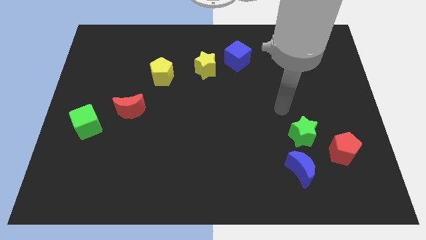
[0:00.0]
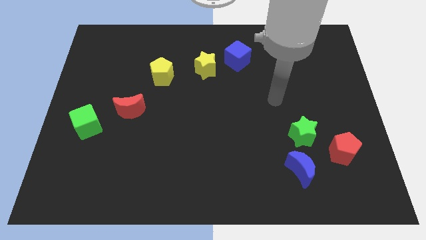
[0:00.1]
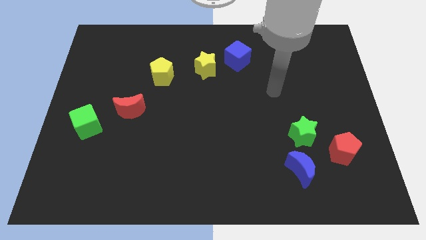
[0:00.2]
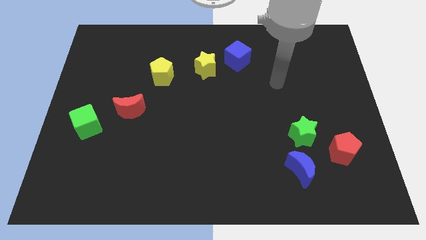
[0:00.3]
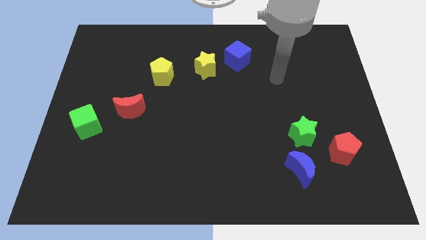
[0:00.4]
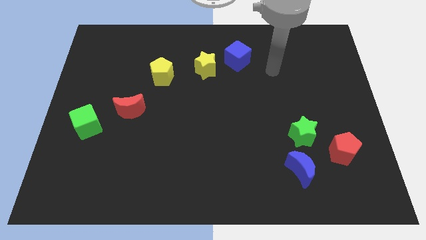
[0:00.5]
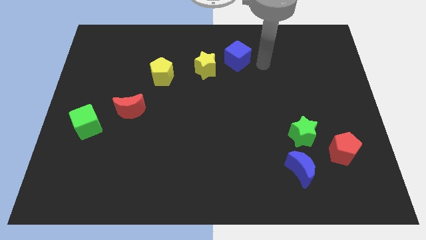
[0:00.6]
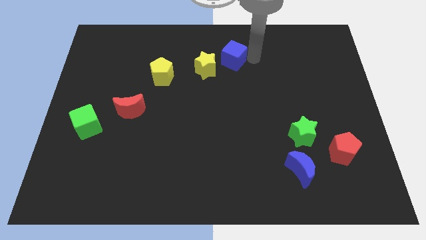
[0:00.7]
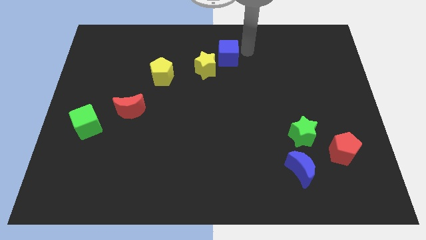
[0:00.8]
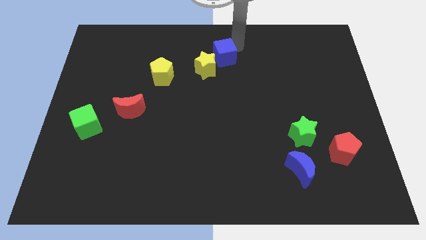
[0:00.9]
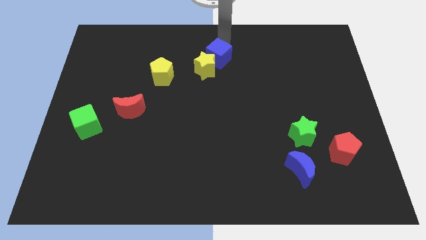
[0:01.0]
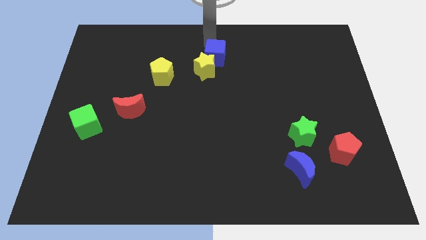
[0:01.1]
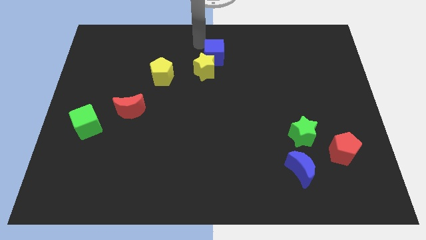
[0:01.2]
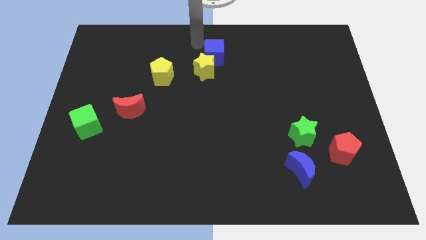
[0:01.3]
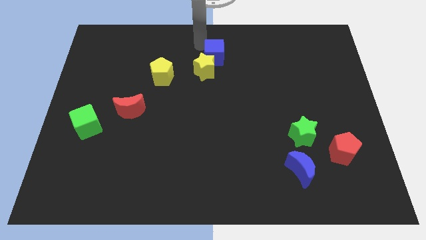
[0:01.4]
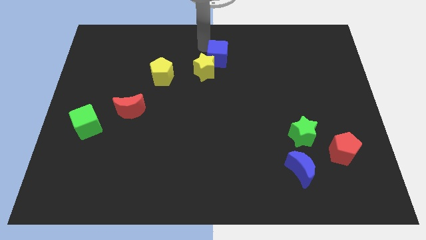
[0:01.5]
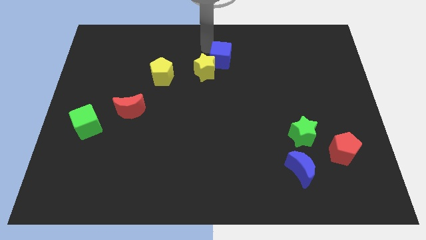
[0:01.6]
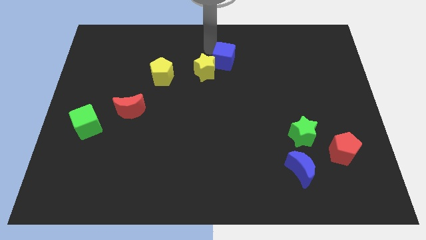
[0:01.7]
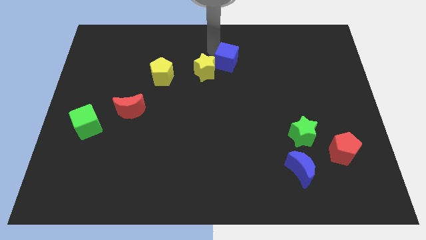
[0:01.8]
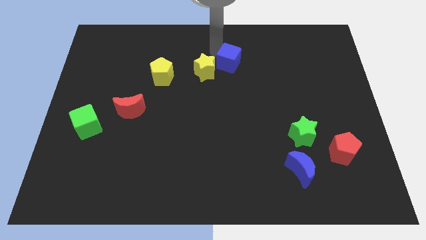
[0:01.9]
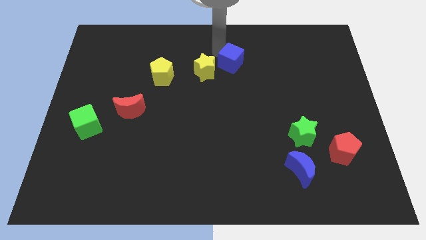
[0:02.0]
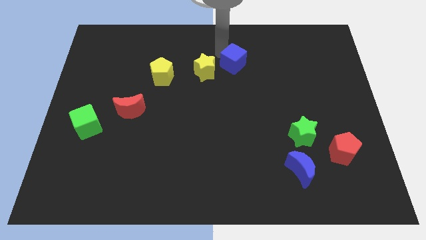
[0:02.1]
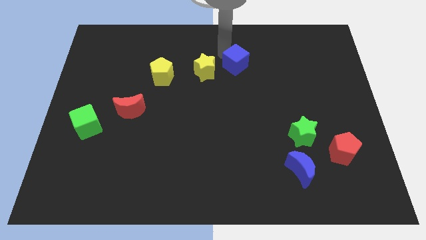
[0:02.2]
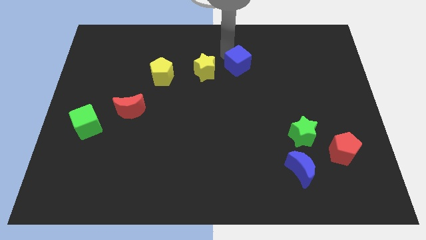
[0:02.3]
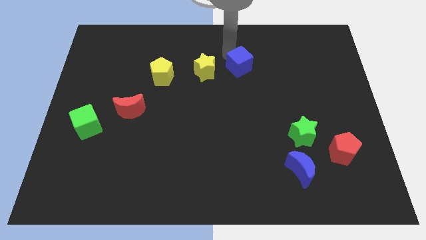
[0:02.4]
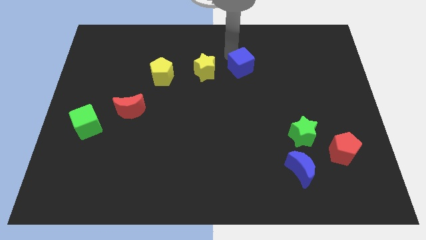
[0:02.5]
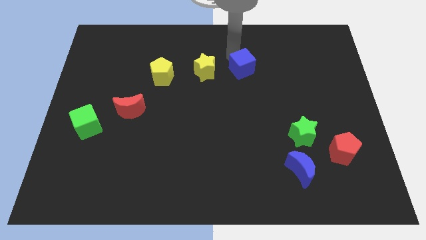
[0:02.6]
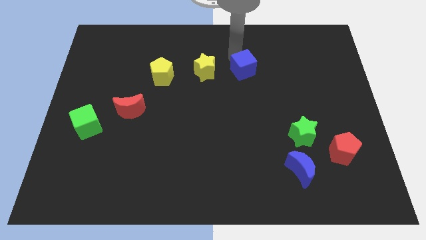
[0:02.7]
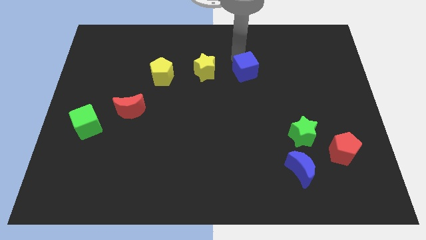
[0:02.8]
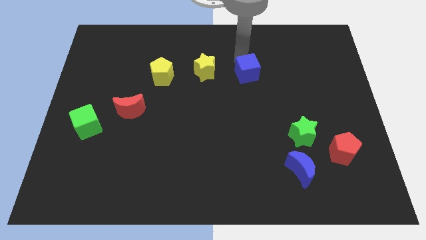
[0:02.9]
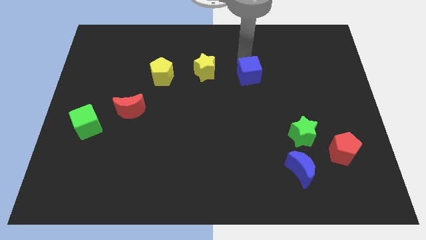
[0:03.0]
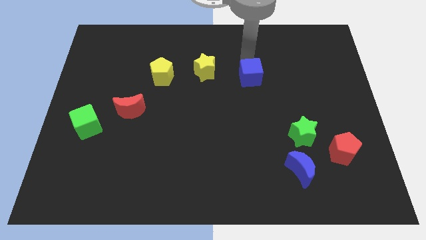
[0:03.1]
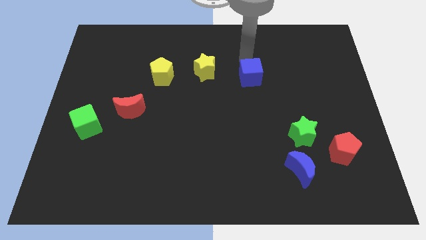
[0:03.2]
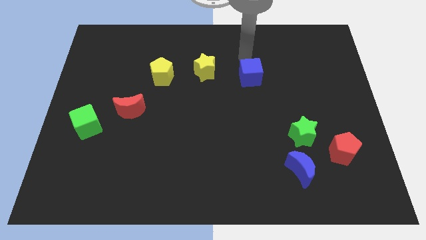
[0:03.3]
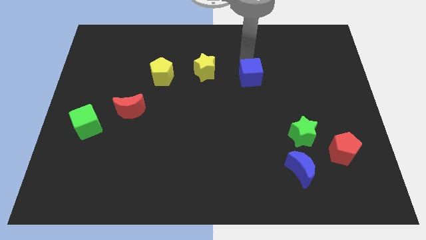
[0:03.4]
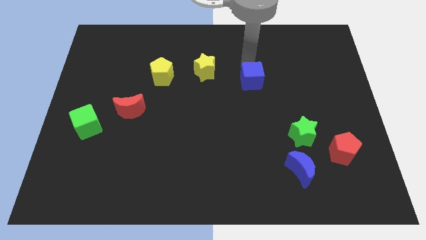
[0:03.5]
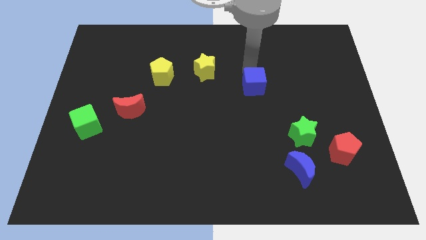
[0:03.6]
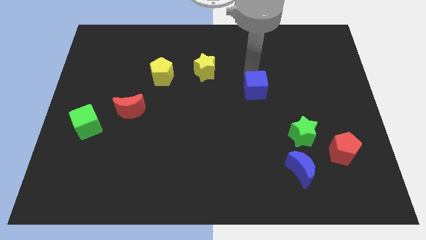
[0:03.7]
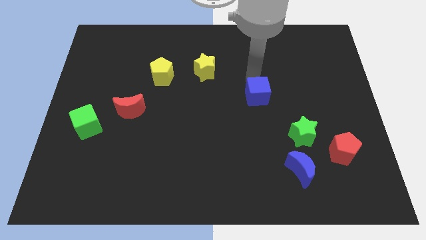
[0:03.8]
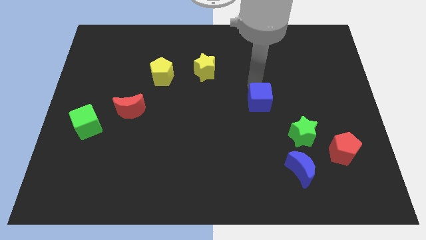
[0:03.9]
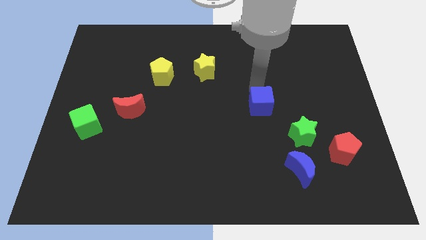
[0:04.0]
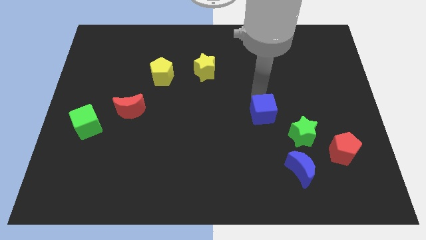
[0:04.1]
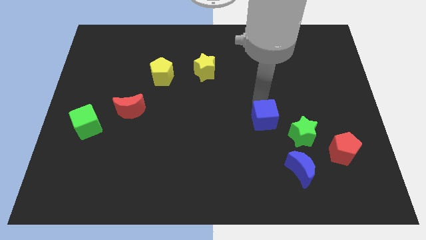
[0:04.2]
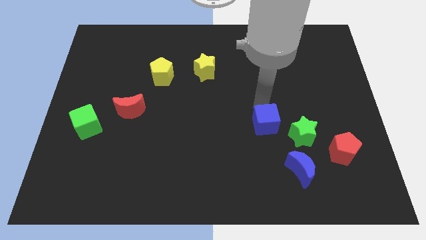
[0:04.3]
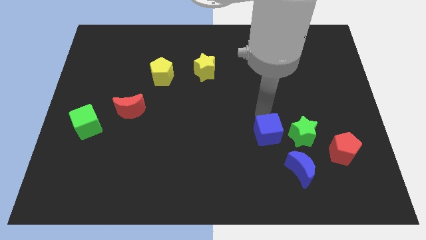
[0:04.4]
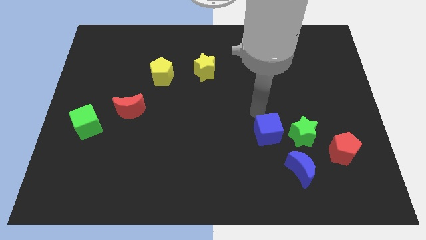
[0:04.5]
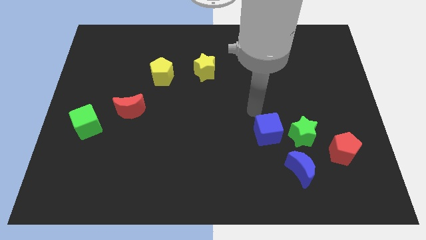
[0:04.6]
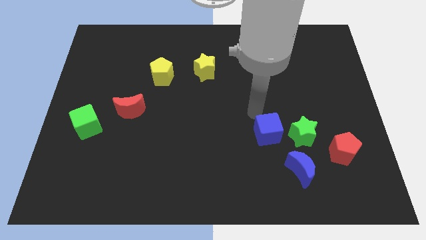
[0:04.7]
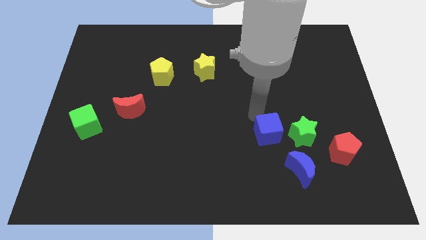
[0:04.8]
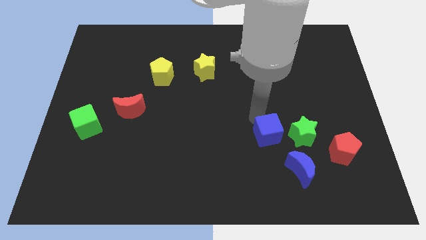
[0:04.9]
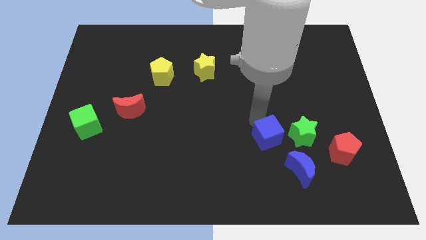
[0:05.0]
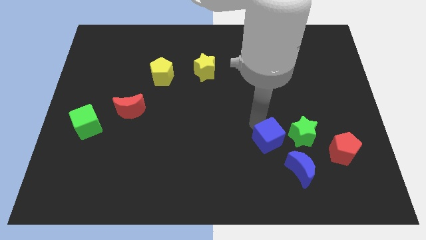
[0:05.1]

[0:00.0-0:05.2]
move the blue cube to the bottom left of the green star

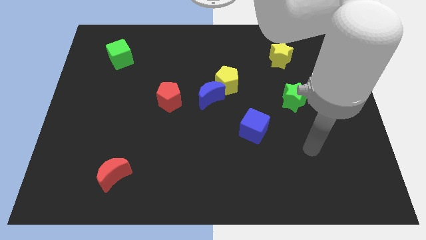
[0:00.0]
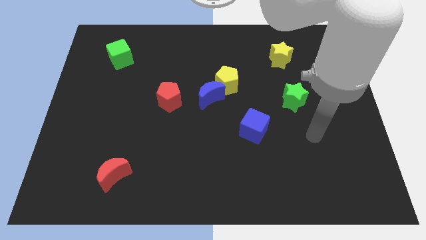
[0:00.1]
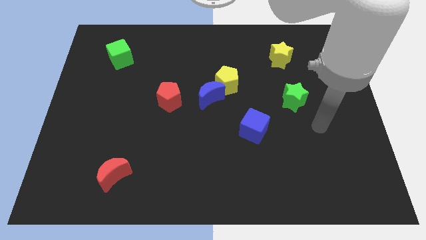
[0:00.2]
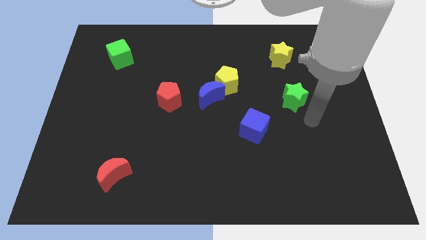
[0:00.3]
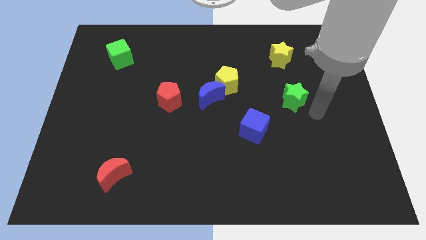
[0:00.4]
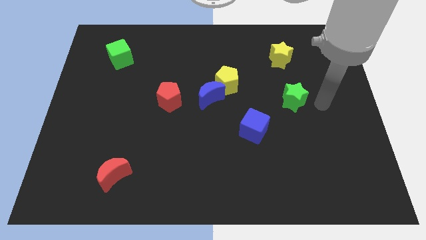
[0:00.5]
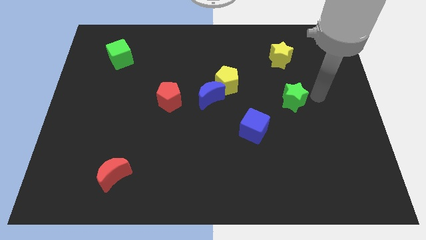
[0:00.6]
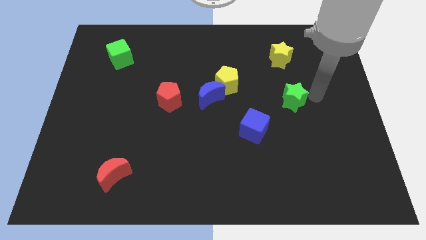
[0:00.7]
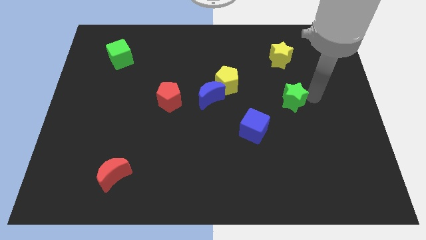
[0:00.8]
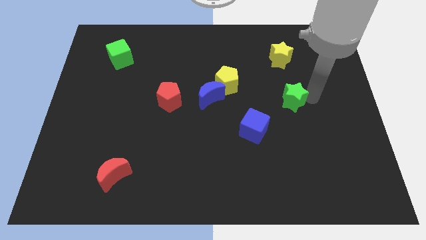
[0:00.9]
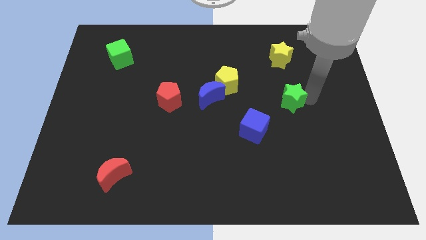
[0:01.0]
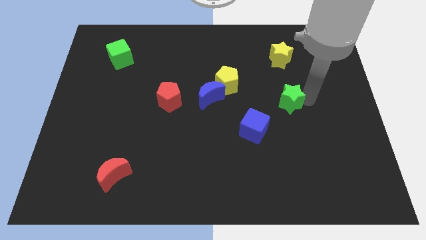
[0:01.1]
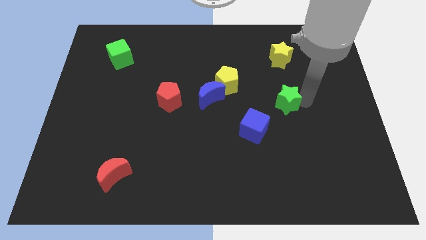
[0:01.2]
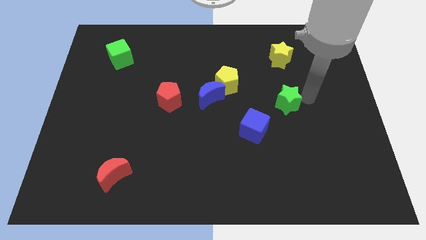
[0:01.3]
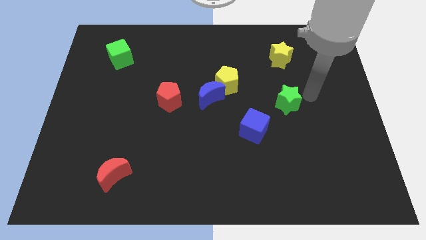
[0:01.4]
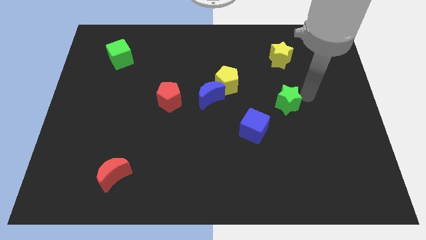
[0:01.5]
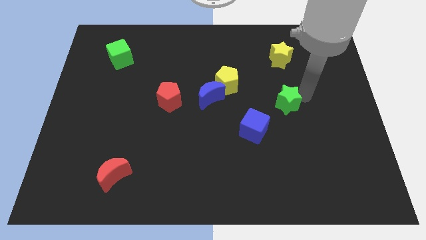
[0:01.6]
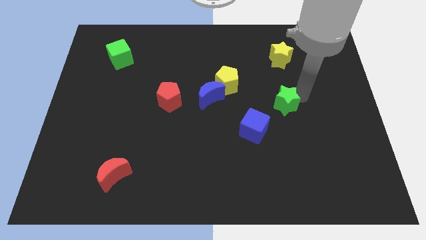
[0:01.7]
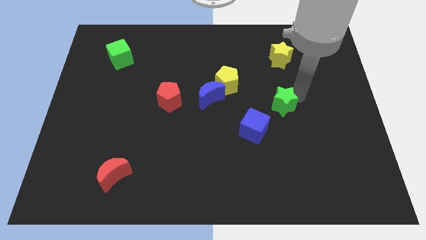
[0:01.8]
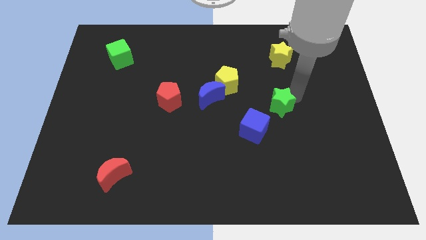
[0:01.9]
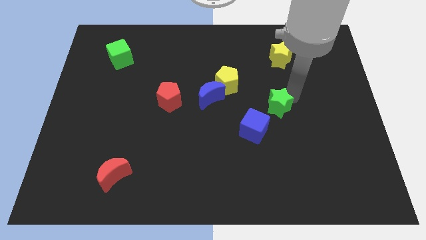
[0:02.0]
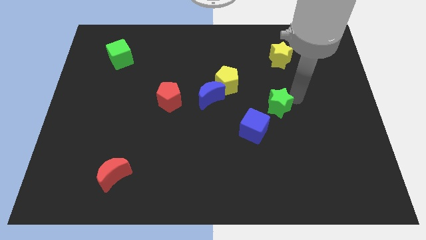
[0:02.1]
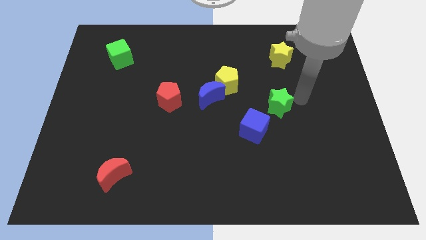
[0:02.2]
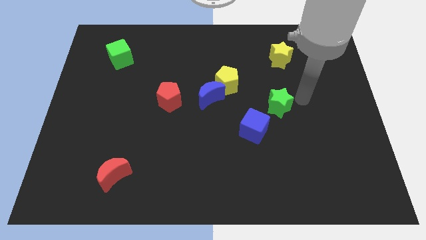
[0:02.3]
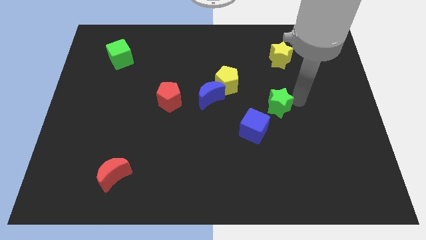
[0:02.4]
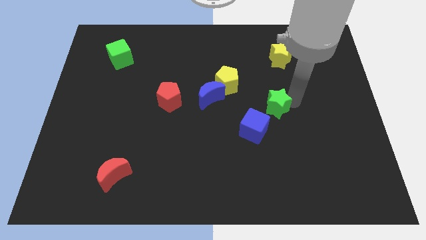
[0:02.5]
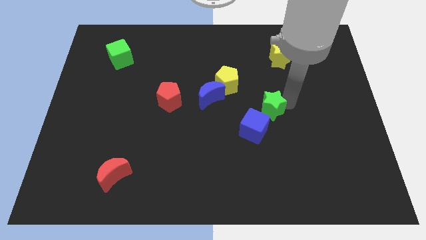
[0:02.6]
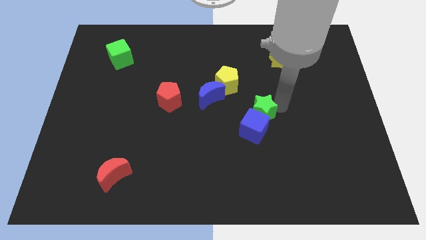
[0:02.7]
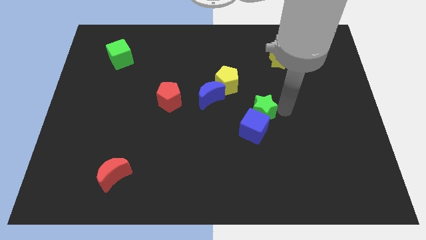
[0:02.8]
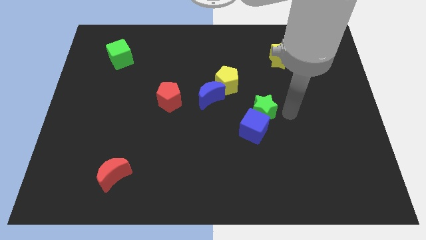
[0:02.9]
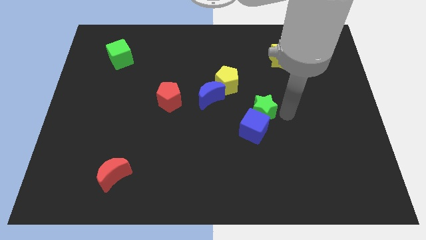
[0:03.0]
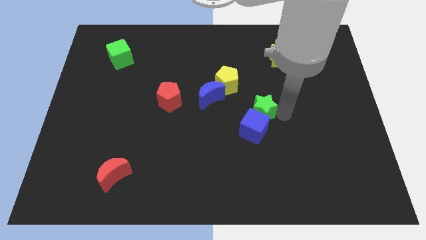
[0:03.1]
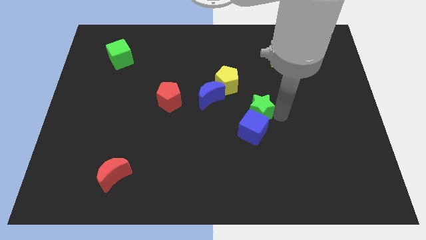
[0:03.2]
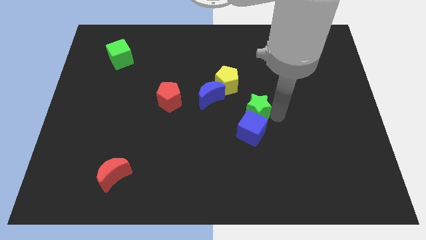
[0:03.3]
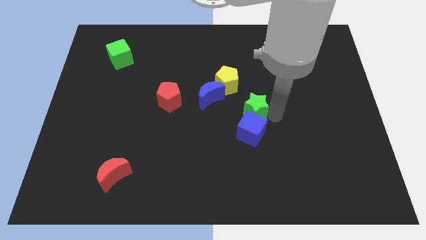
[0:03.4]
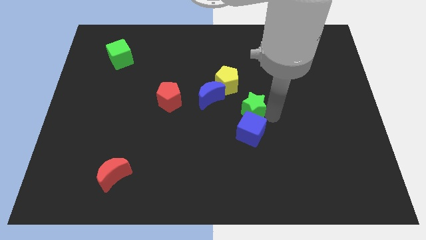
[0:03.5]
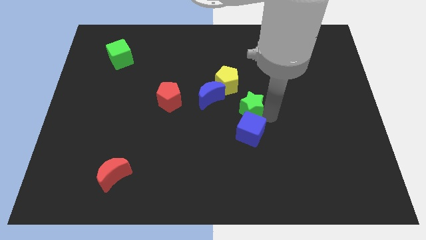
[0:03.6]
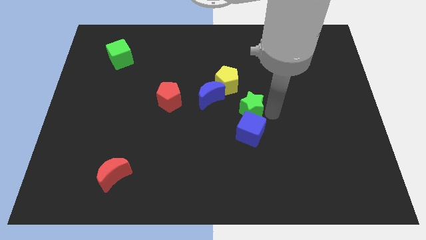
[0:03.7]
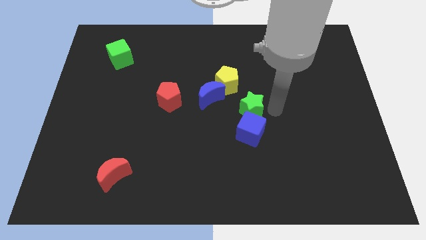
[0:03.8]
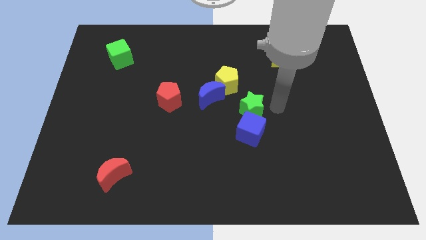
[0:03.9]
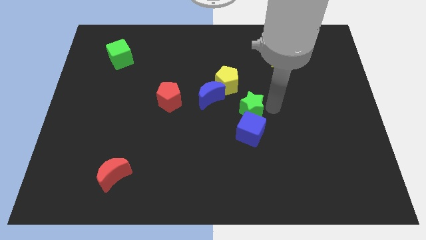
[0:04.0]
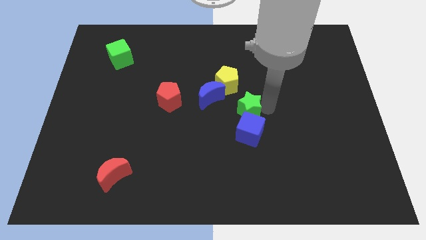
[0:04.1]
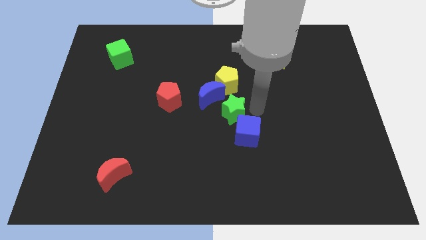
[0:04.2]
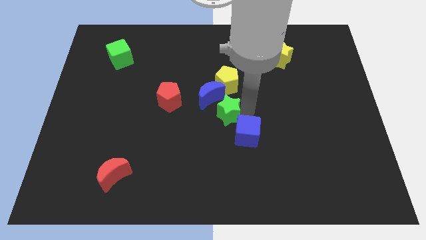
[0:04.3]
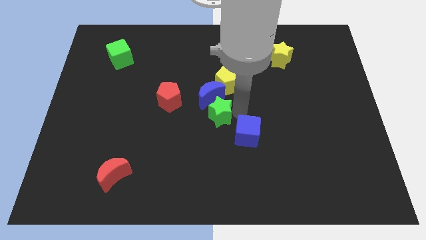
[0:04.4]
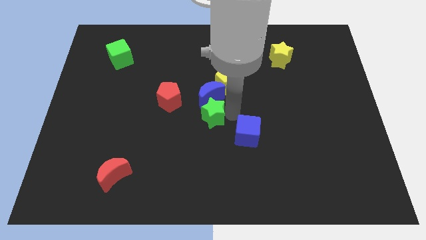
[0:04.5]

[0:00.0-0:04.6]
slide the green star to the bottom left side of the yellow pentagon
